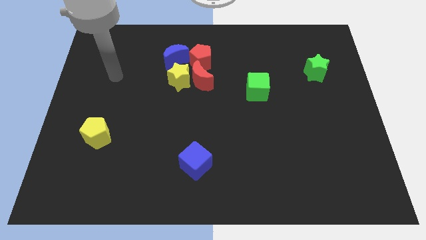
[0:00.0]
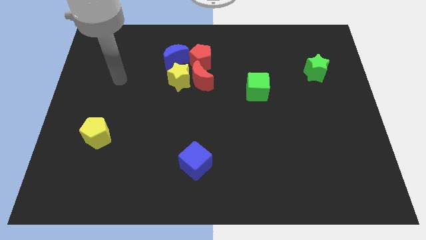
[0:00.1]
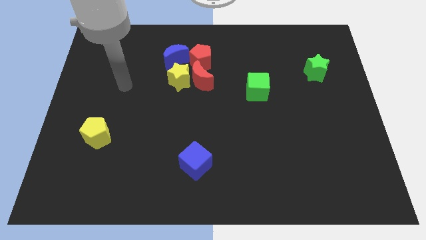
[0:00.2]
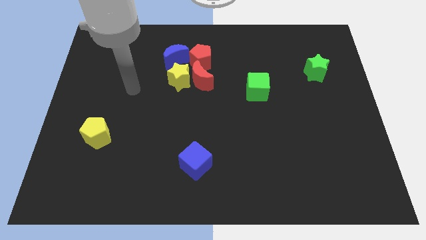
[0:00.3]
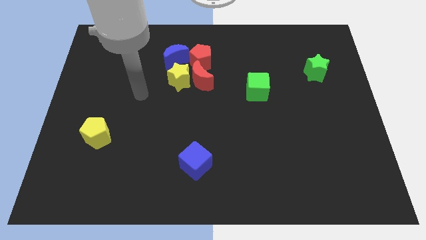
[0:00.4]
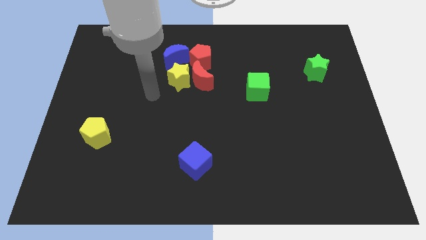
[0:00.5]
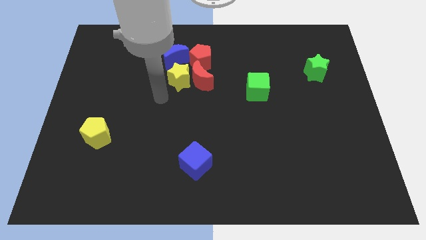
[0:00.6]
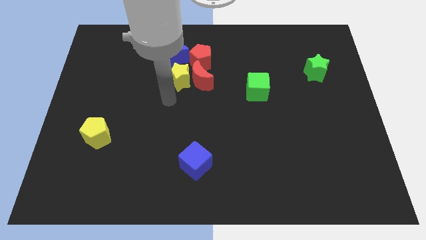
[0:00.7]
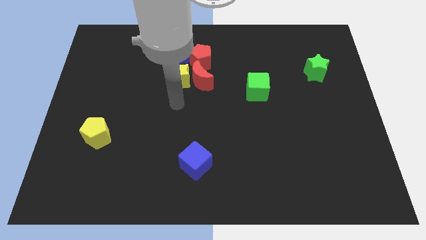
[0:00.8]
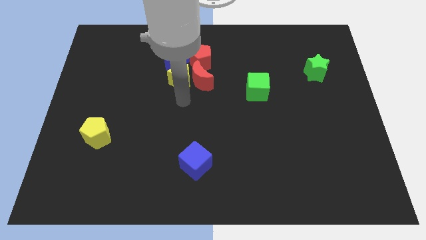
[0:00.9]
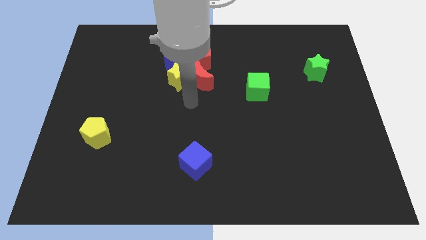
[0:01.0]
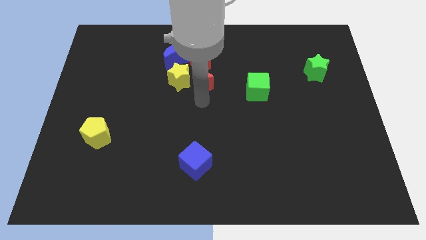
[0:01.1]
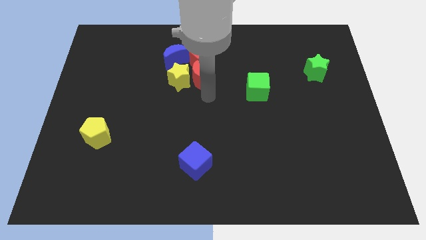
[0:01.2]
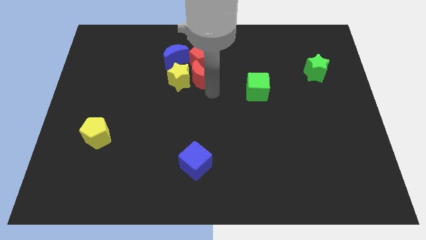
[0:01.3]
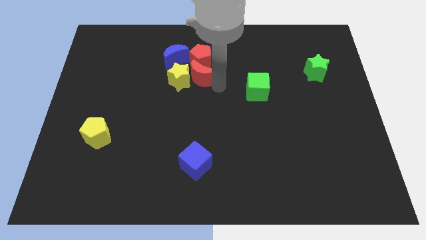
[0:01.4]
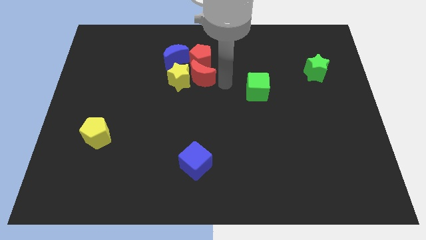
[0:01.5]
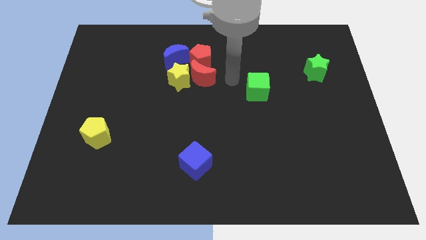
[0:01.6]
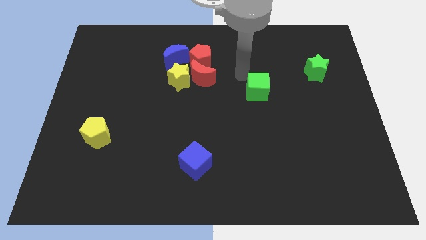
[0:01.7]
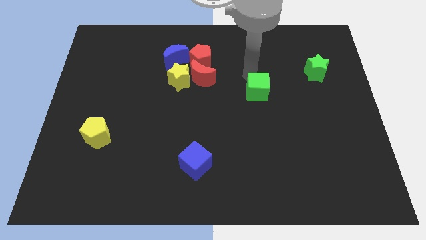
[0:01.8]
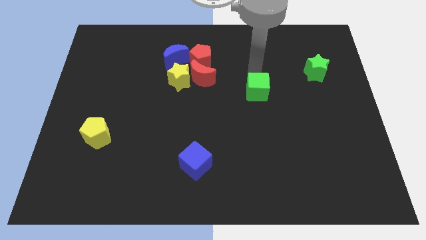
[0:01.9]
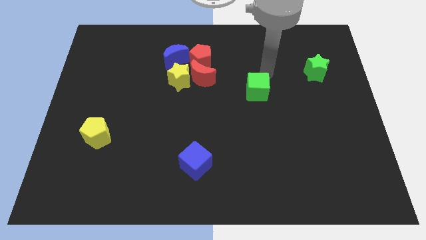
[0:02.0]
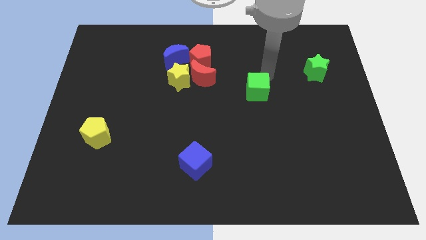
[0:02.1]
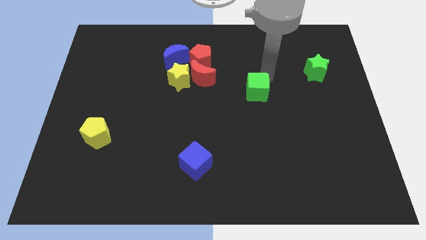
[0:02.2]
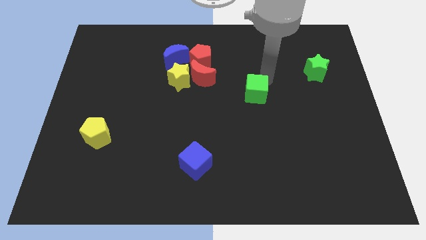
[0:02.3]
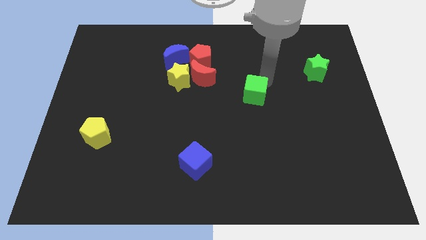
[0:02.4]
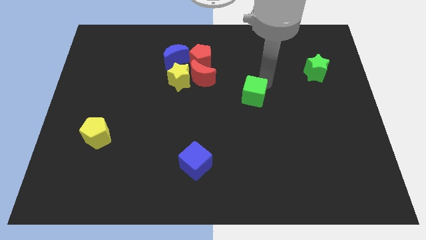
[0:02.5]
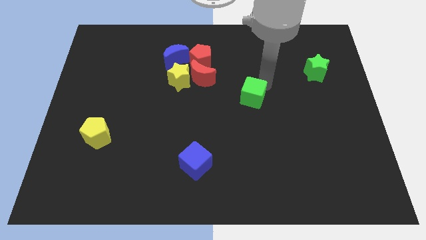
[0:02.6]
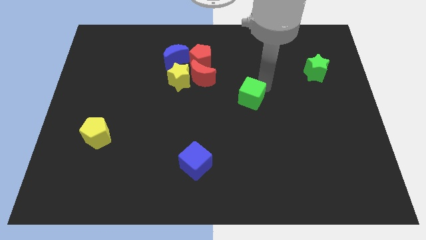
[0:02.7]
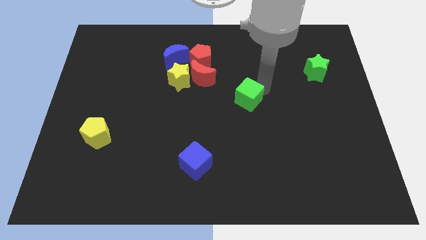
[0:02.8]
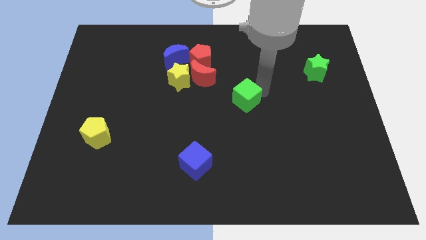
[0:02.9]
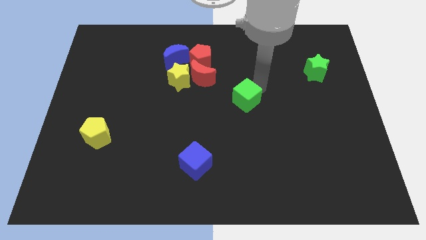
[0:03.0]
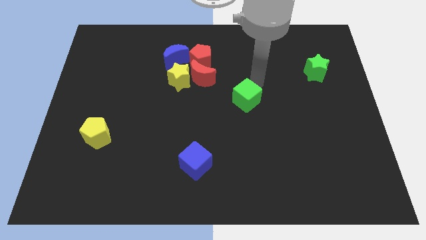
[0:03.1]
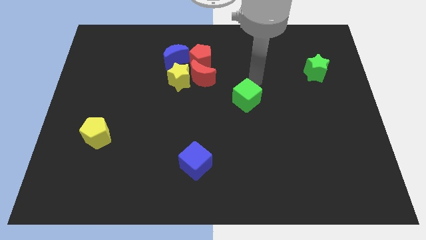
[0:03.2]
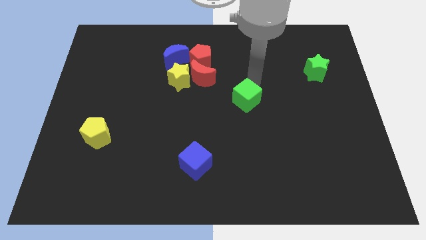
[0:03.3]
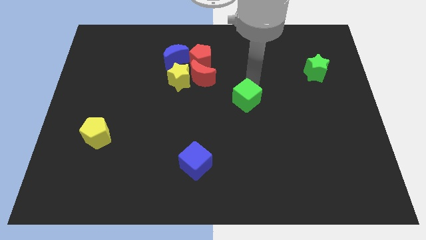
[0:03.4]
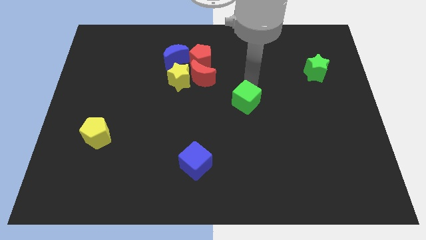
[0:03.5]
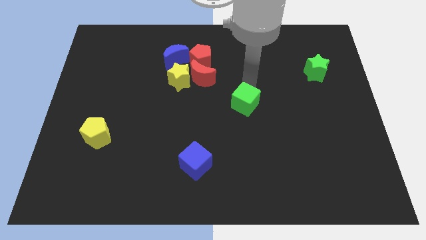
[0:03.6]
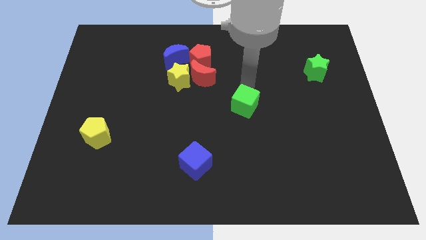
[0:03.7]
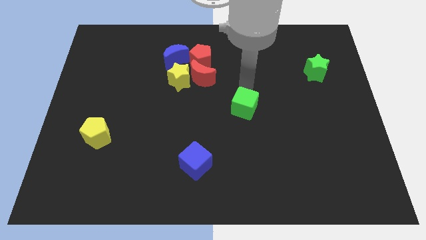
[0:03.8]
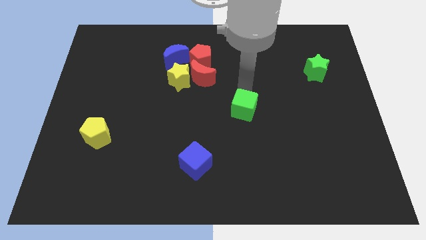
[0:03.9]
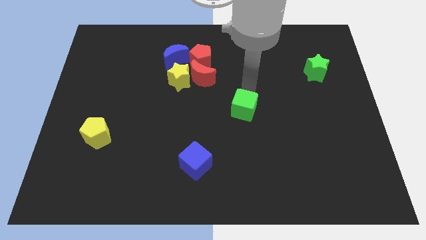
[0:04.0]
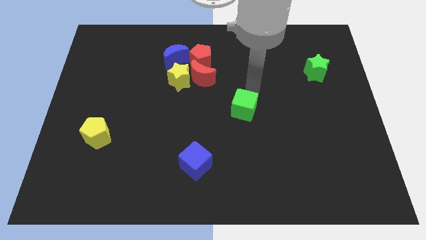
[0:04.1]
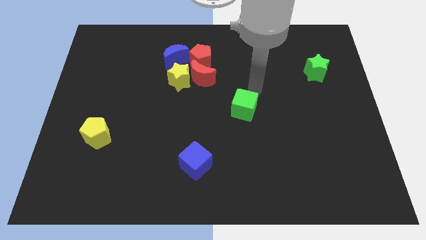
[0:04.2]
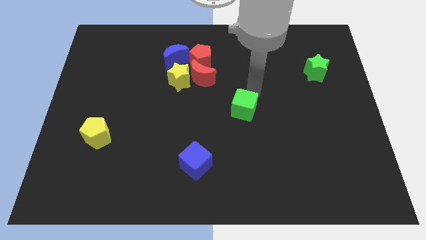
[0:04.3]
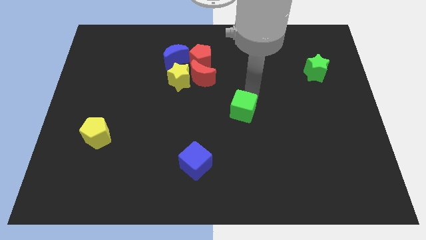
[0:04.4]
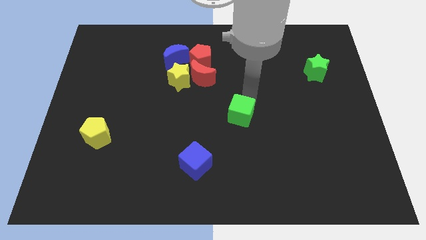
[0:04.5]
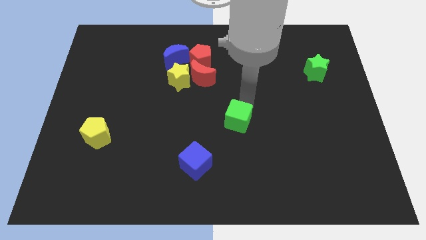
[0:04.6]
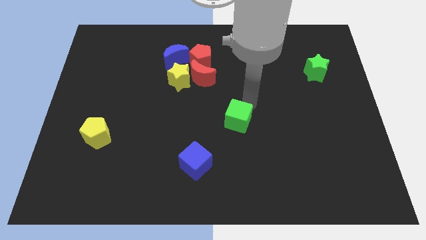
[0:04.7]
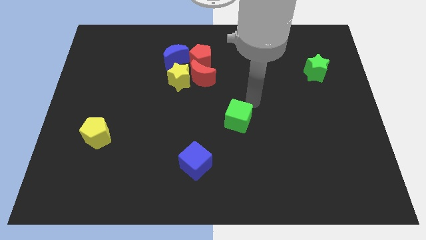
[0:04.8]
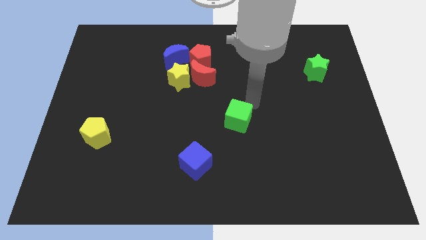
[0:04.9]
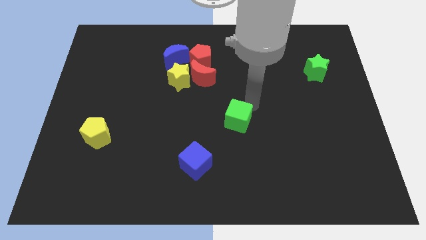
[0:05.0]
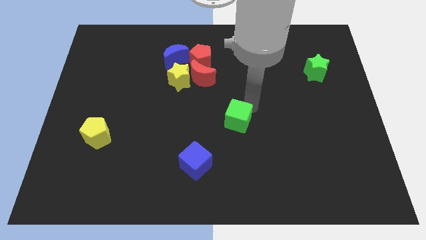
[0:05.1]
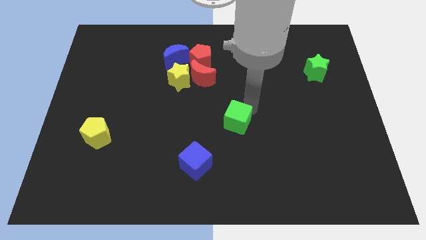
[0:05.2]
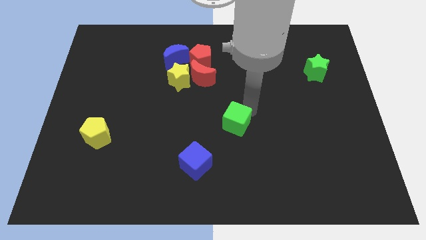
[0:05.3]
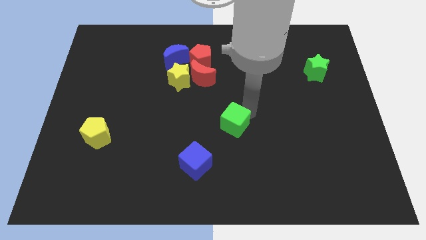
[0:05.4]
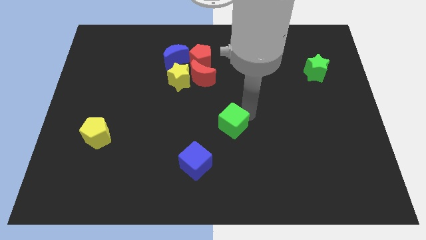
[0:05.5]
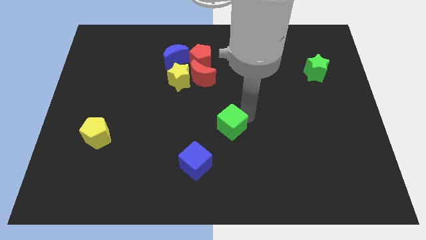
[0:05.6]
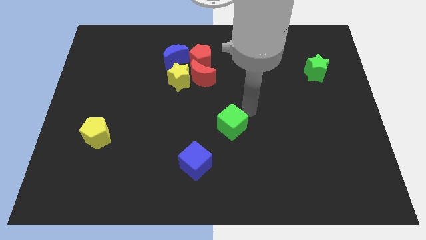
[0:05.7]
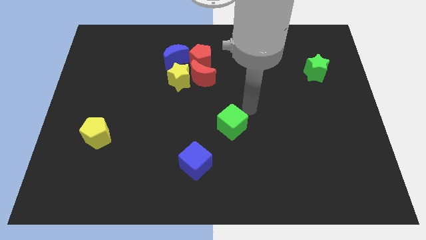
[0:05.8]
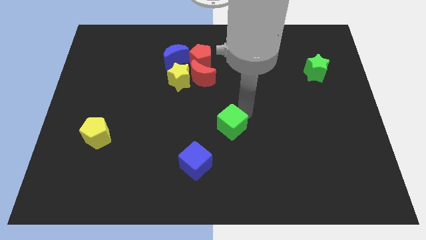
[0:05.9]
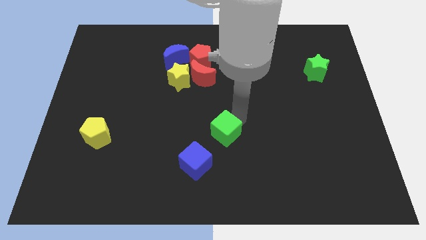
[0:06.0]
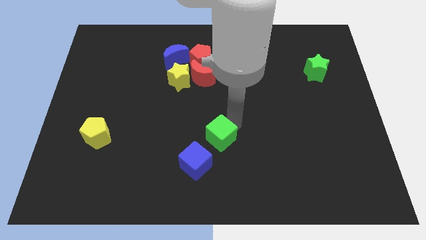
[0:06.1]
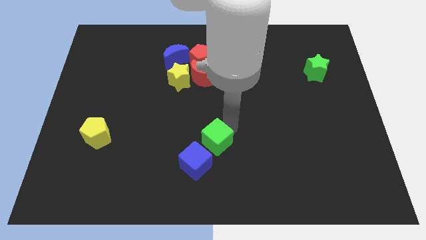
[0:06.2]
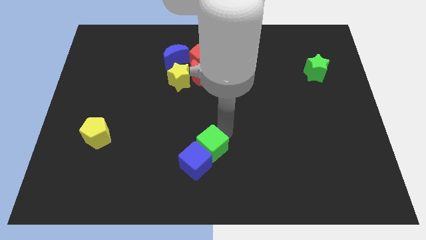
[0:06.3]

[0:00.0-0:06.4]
push the green cube towards the blue cube

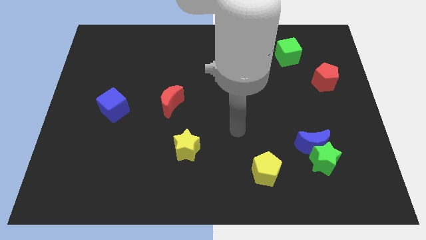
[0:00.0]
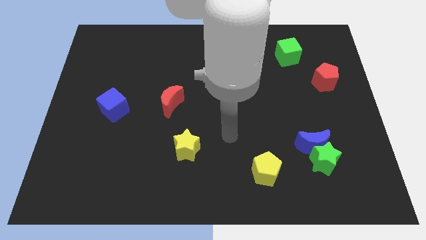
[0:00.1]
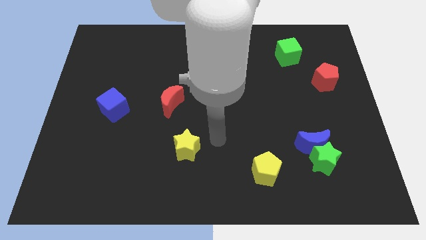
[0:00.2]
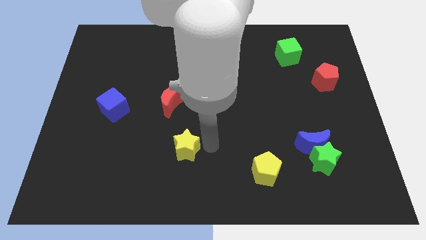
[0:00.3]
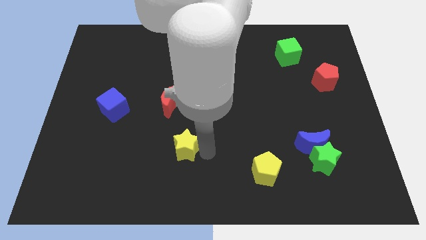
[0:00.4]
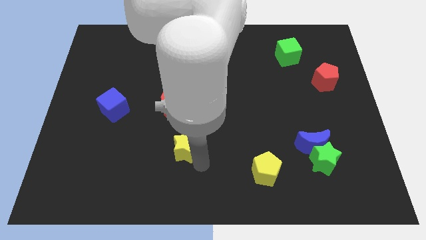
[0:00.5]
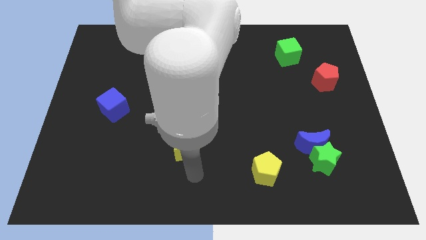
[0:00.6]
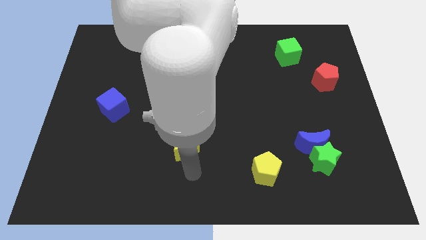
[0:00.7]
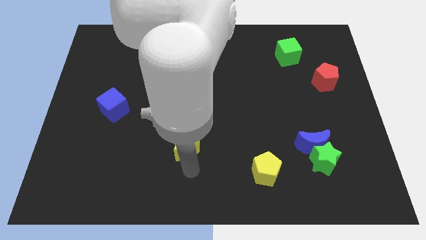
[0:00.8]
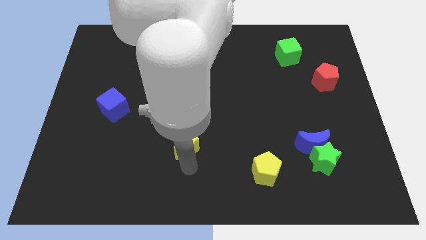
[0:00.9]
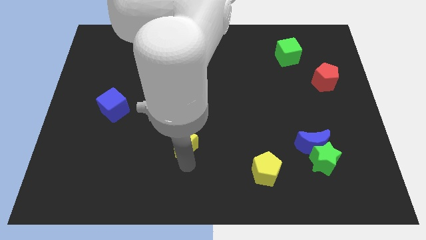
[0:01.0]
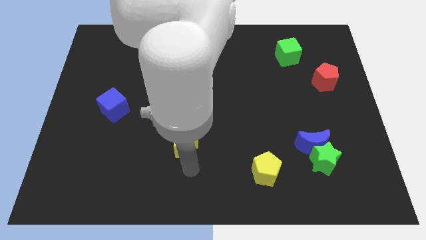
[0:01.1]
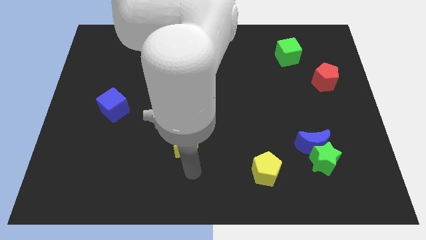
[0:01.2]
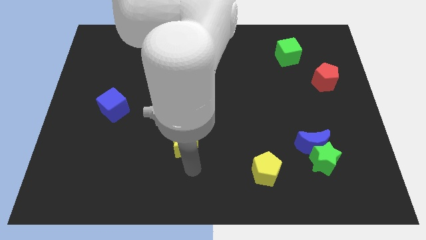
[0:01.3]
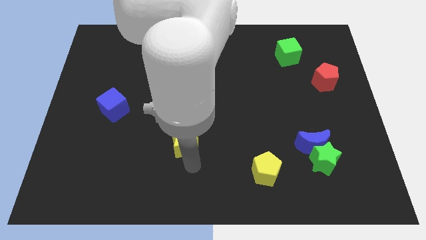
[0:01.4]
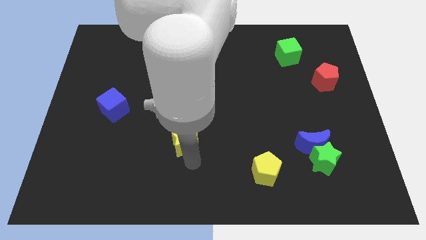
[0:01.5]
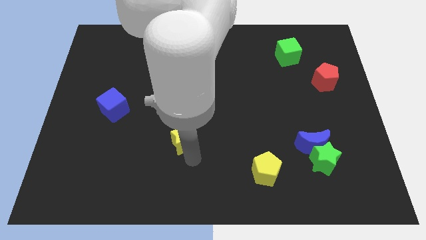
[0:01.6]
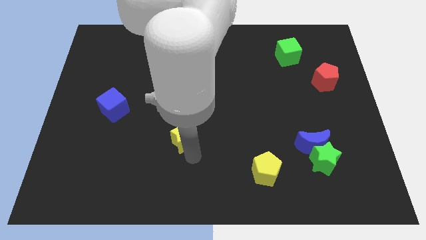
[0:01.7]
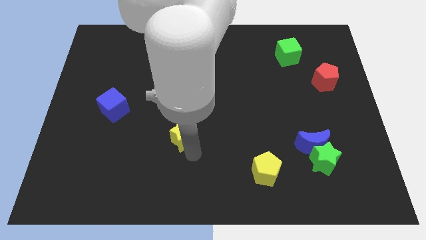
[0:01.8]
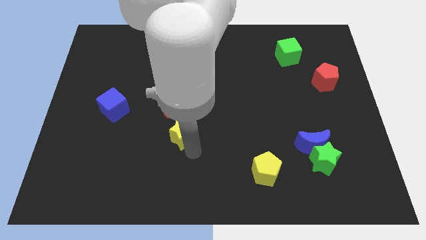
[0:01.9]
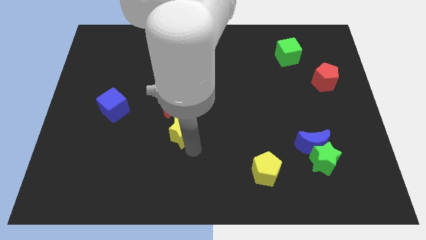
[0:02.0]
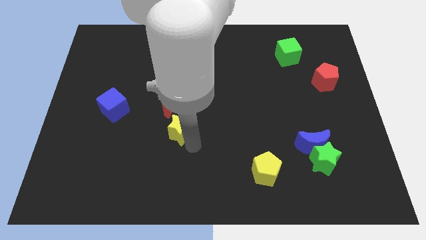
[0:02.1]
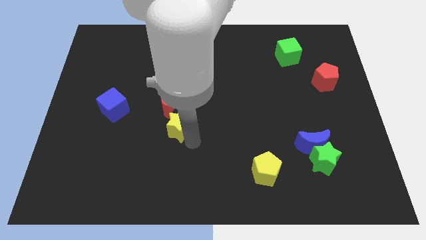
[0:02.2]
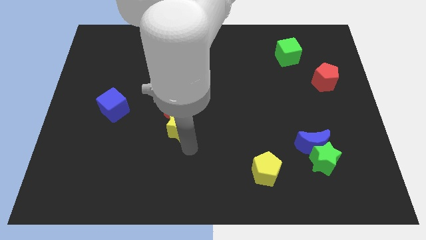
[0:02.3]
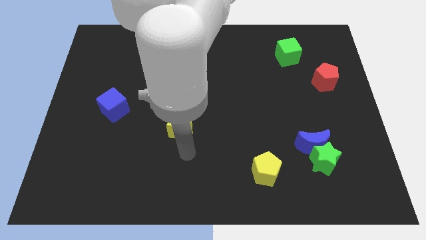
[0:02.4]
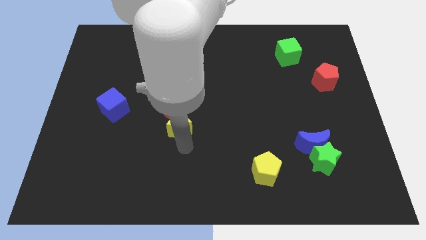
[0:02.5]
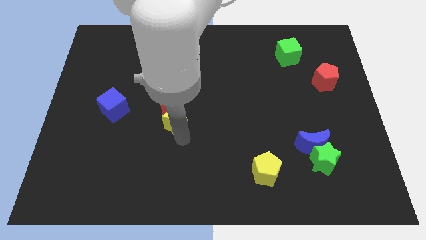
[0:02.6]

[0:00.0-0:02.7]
move the yellow star next to the red moon
